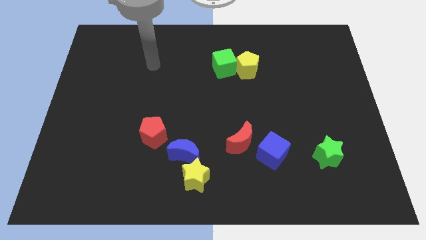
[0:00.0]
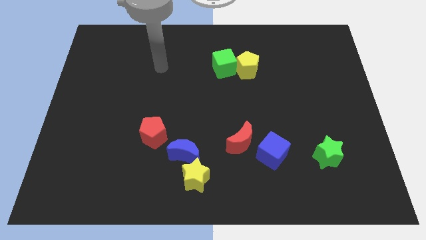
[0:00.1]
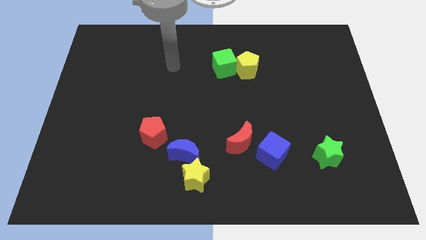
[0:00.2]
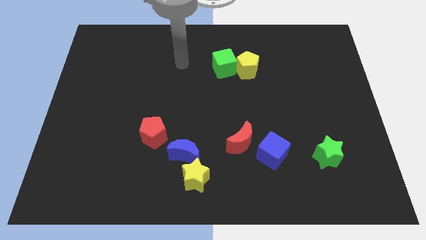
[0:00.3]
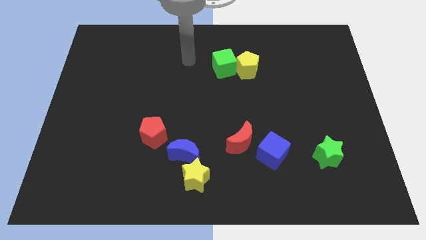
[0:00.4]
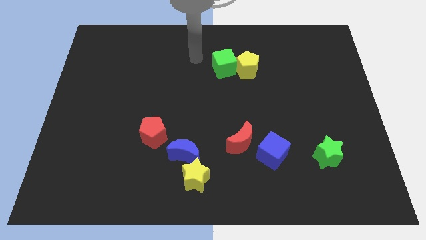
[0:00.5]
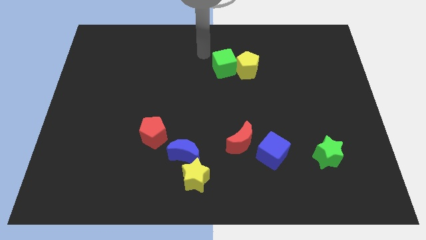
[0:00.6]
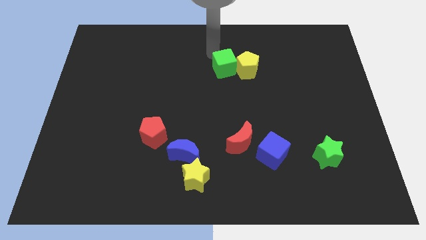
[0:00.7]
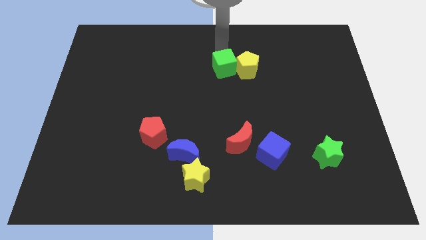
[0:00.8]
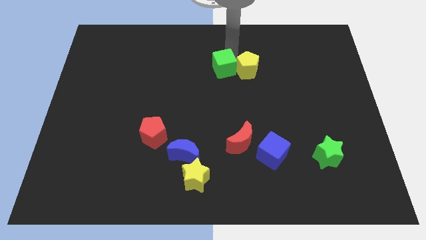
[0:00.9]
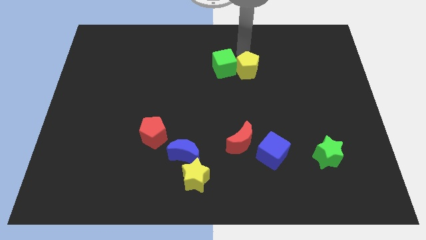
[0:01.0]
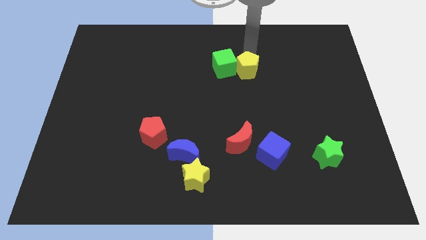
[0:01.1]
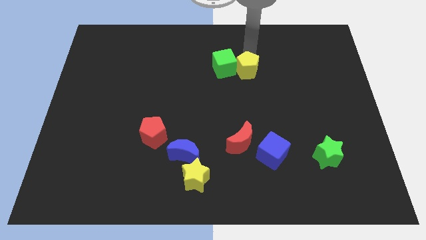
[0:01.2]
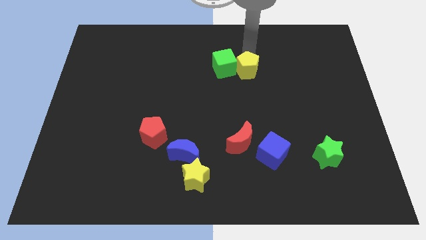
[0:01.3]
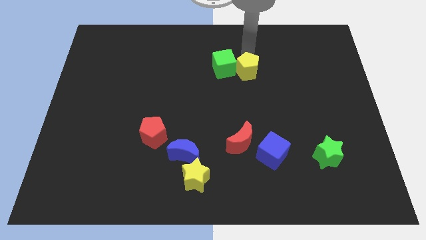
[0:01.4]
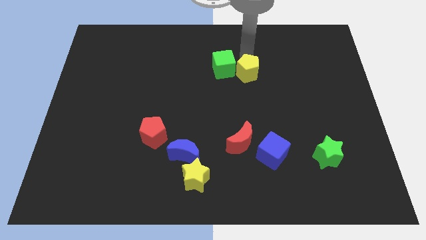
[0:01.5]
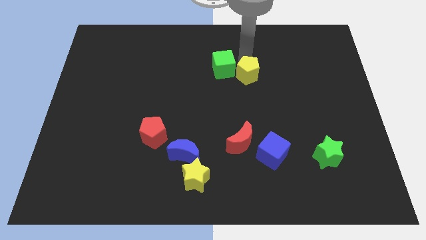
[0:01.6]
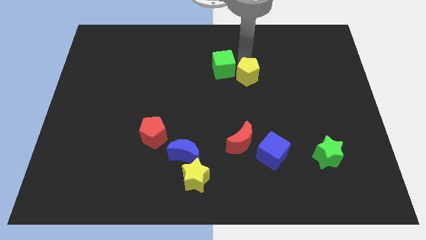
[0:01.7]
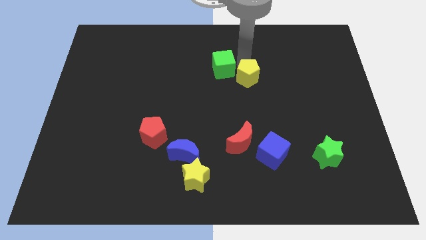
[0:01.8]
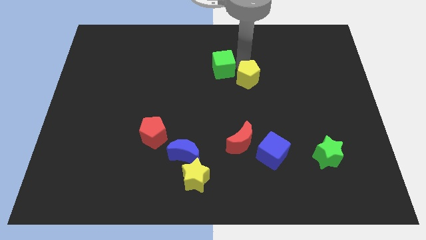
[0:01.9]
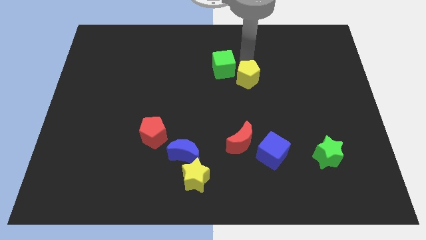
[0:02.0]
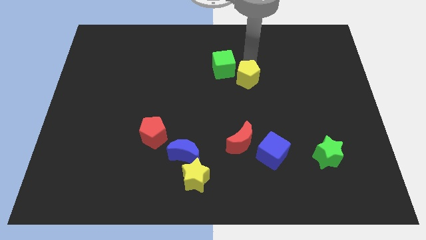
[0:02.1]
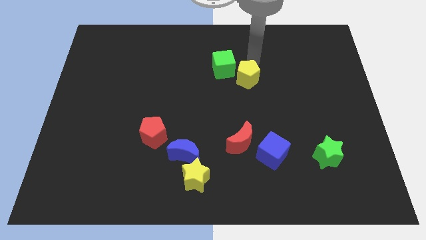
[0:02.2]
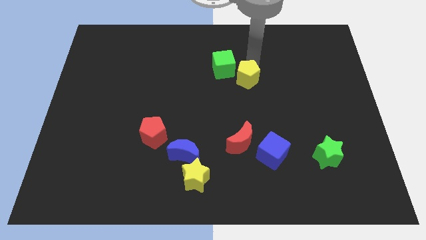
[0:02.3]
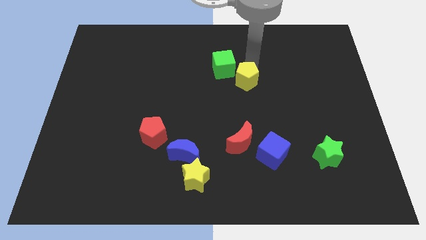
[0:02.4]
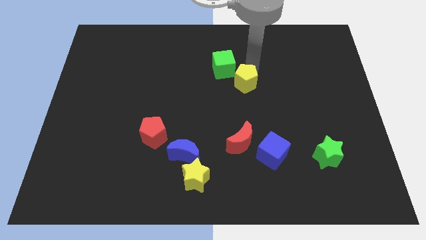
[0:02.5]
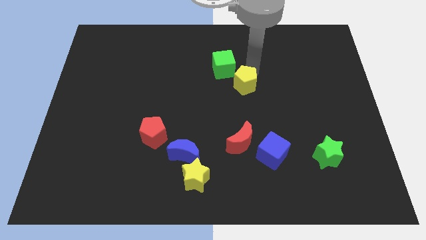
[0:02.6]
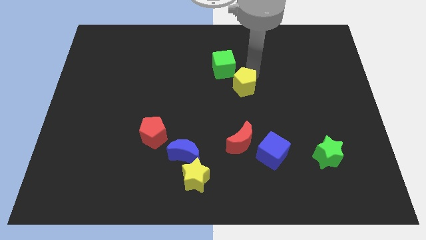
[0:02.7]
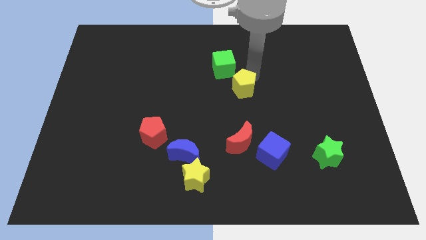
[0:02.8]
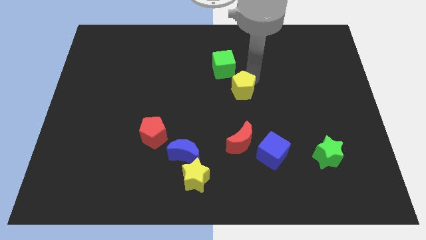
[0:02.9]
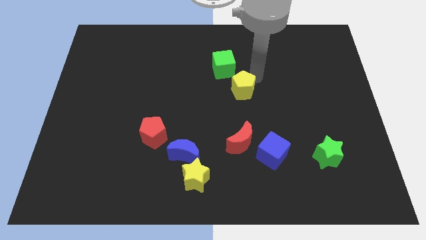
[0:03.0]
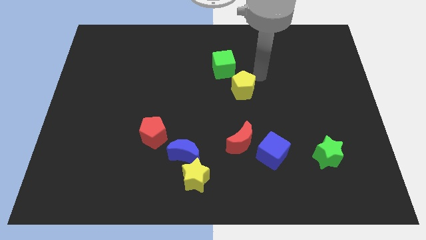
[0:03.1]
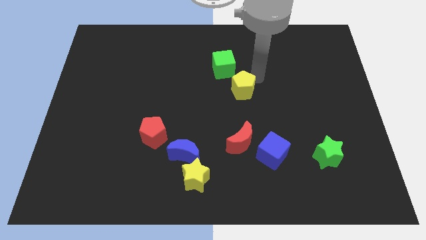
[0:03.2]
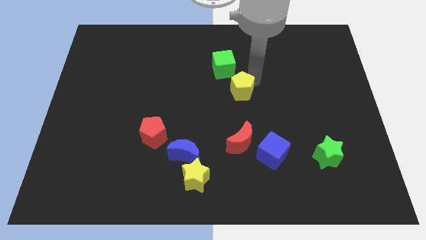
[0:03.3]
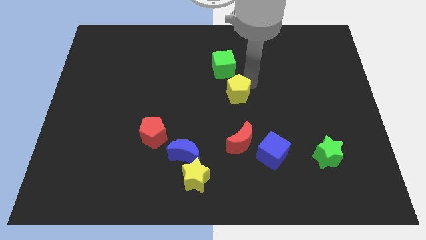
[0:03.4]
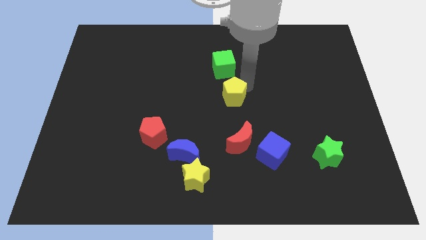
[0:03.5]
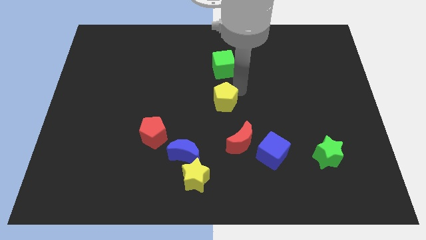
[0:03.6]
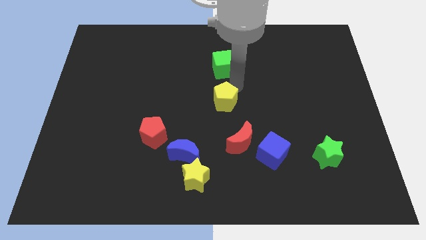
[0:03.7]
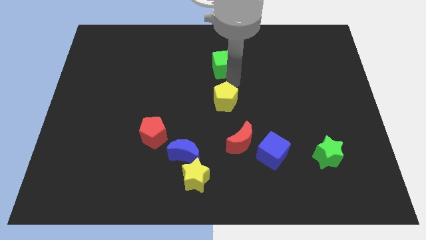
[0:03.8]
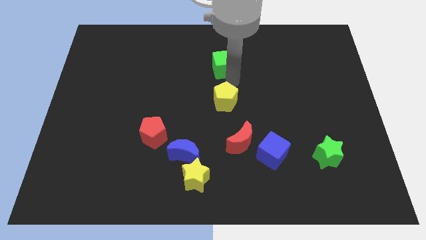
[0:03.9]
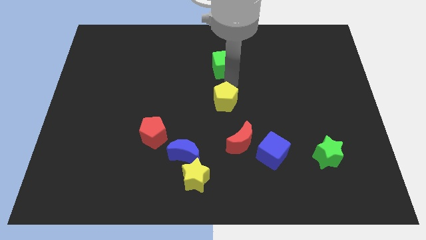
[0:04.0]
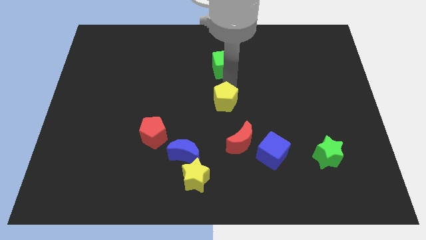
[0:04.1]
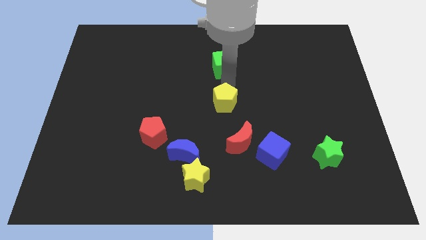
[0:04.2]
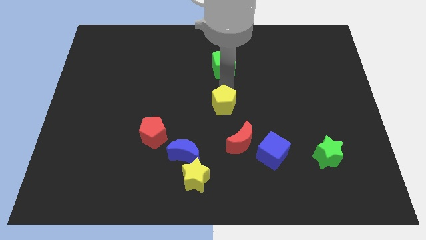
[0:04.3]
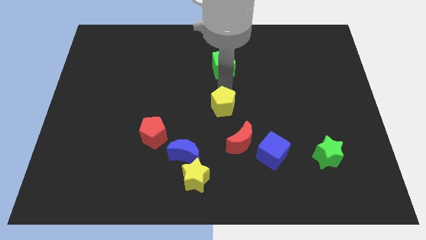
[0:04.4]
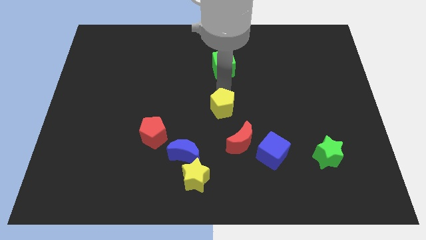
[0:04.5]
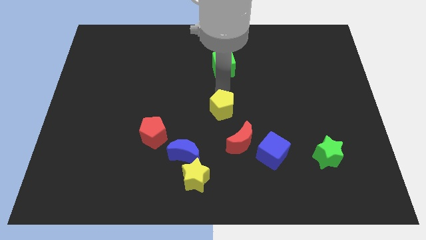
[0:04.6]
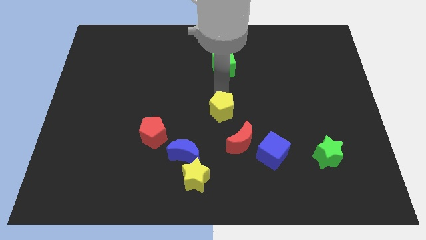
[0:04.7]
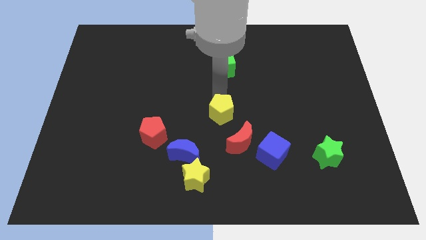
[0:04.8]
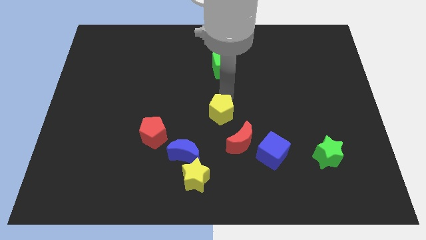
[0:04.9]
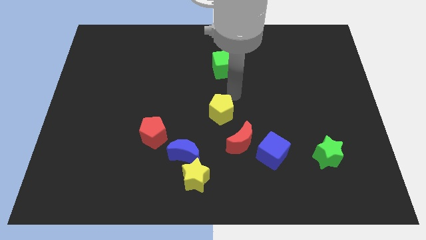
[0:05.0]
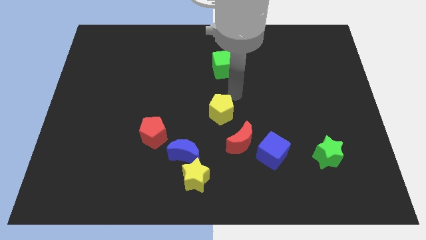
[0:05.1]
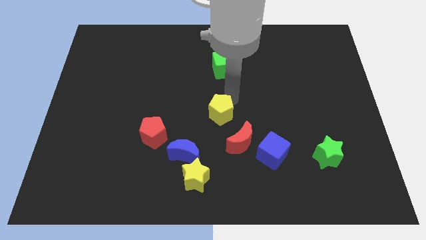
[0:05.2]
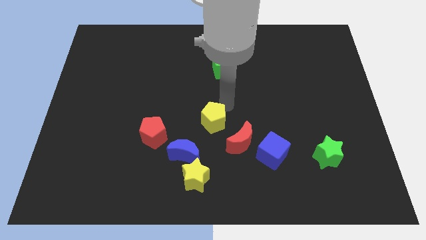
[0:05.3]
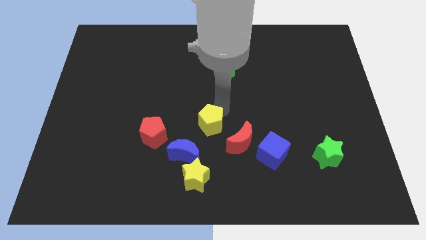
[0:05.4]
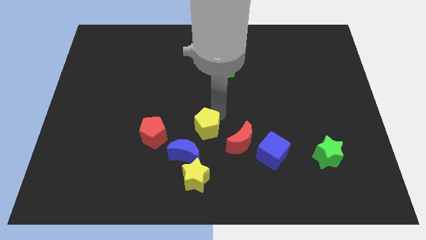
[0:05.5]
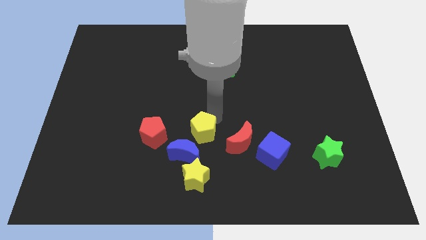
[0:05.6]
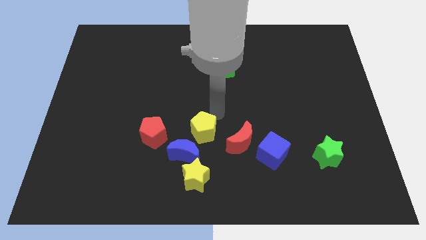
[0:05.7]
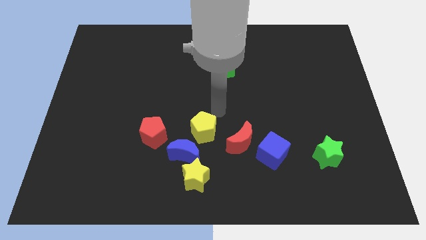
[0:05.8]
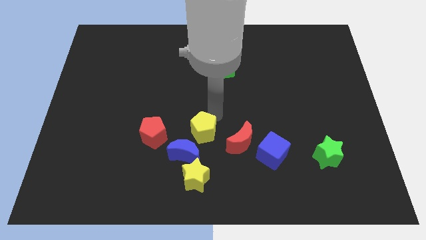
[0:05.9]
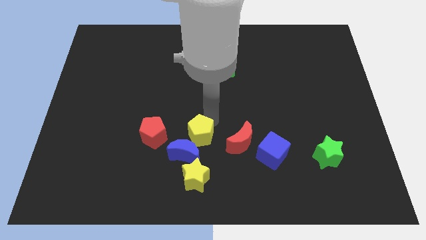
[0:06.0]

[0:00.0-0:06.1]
put the yellow pentagon towards the blue moon

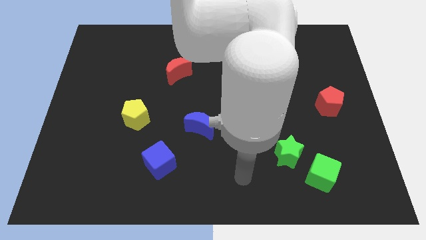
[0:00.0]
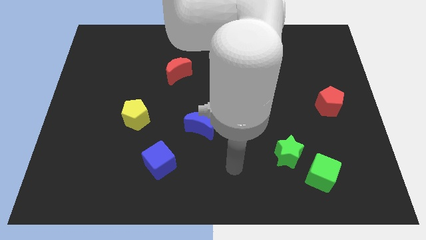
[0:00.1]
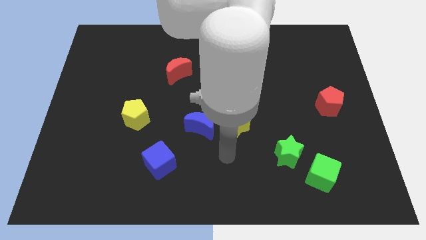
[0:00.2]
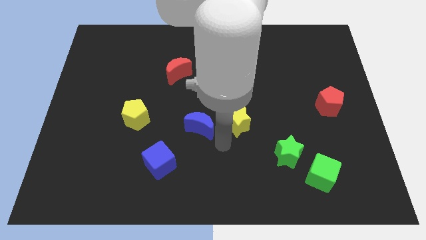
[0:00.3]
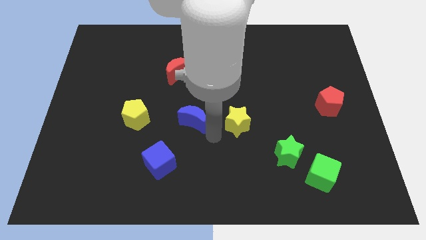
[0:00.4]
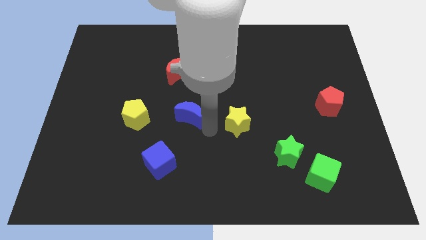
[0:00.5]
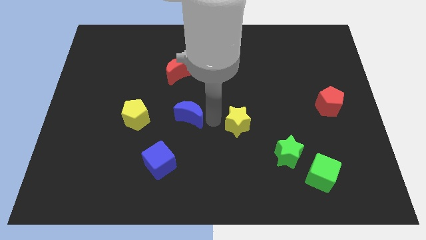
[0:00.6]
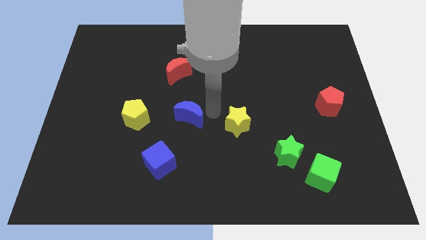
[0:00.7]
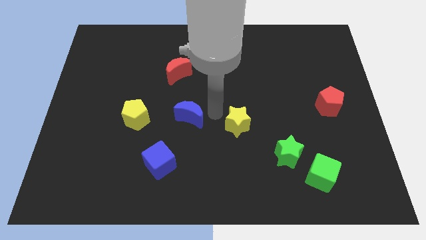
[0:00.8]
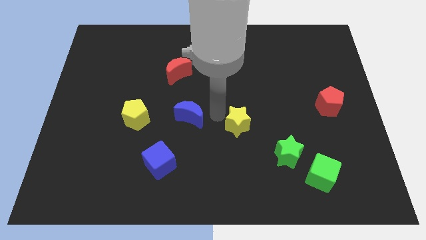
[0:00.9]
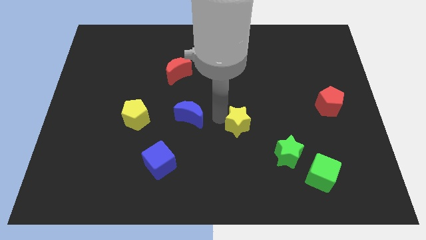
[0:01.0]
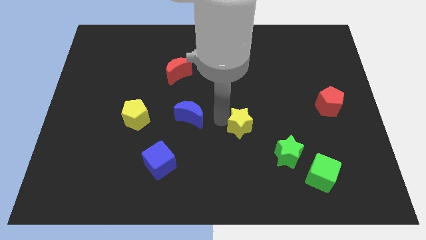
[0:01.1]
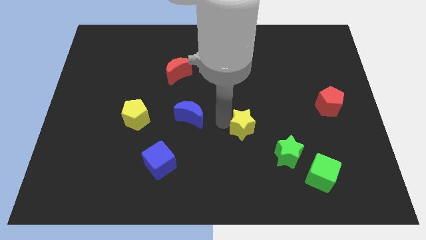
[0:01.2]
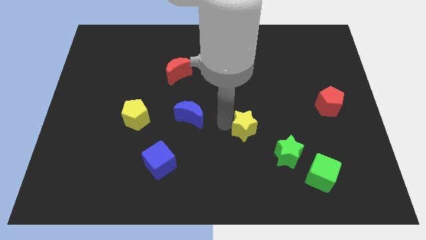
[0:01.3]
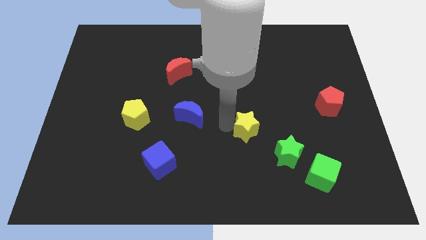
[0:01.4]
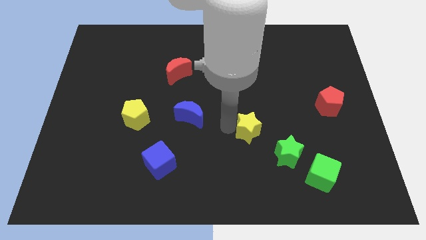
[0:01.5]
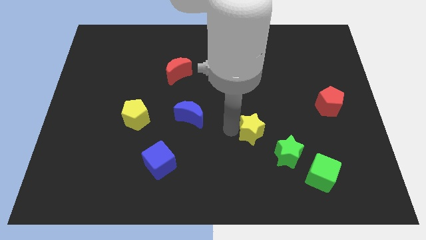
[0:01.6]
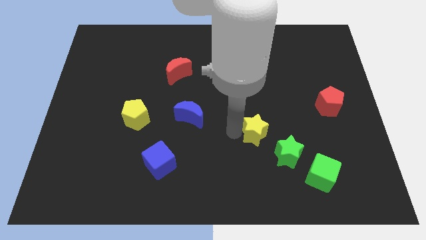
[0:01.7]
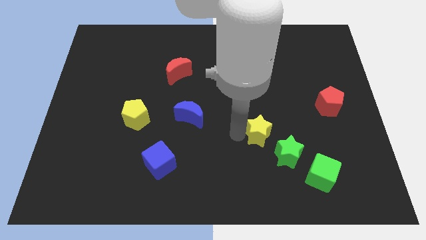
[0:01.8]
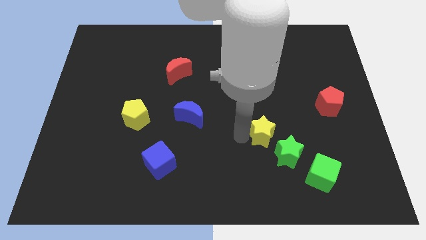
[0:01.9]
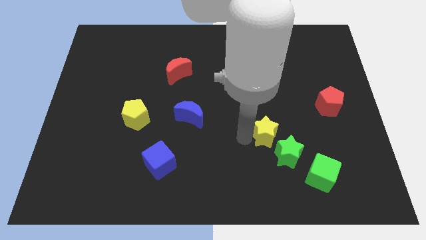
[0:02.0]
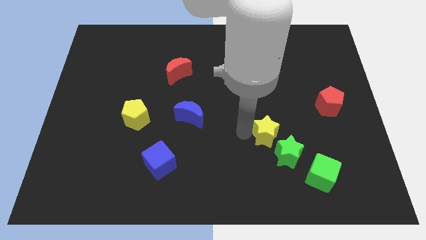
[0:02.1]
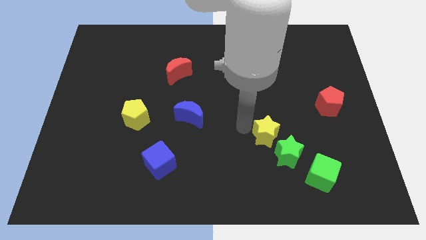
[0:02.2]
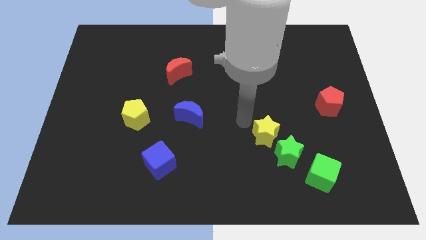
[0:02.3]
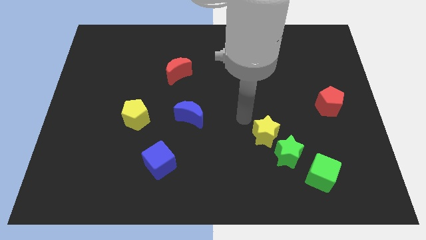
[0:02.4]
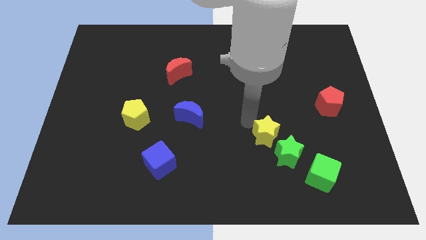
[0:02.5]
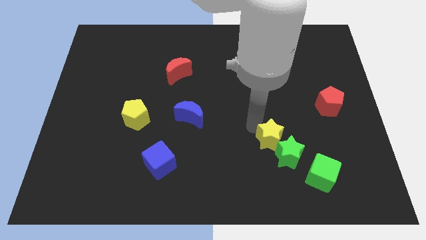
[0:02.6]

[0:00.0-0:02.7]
put the yellow star towards the green star
